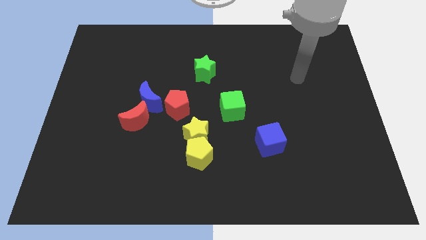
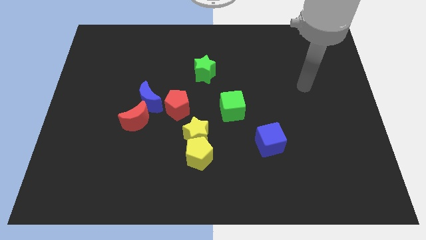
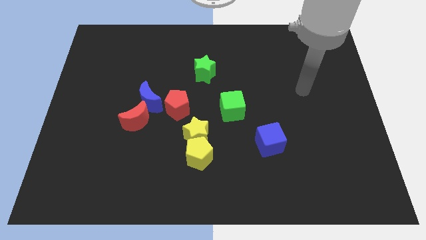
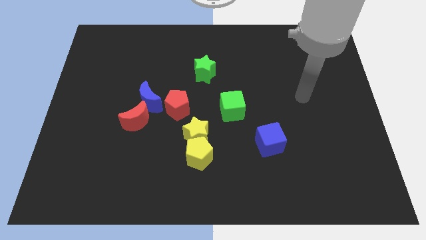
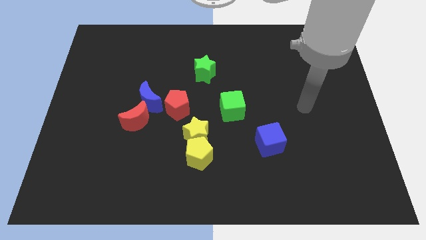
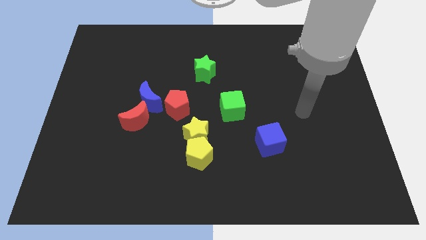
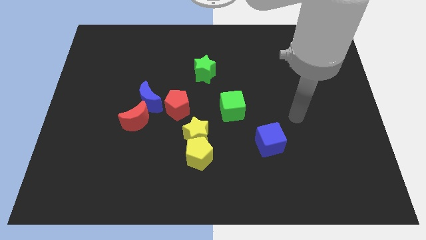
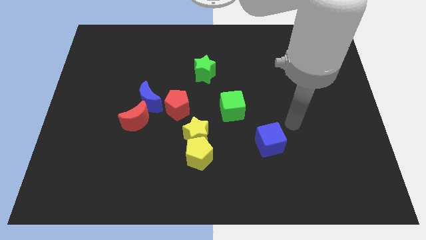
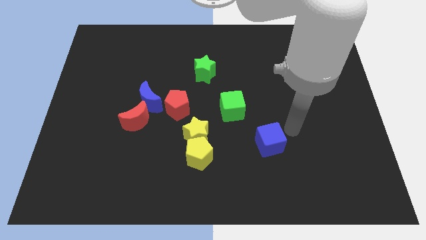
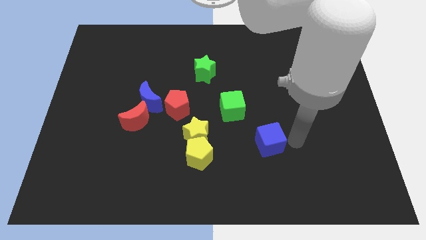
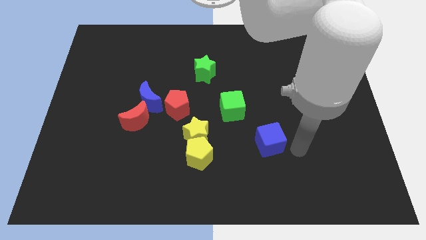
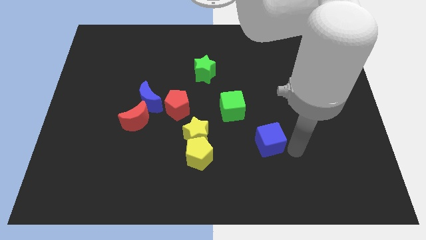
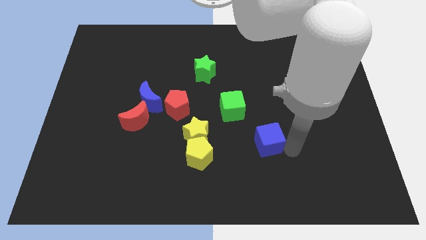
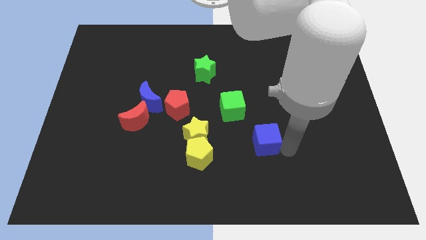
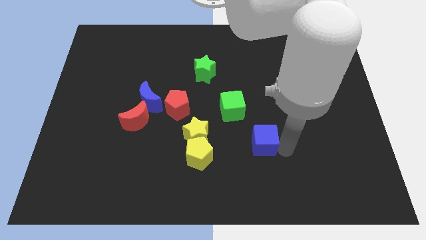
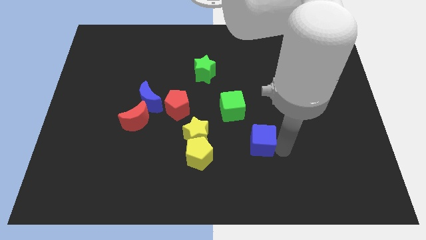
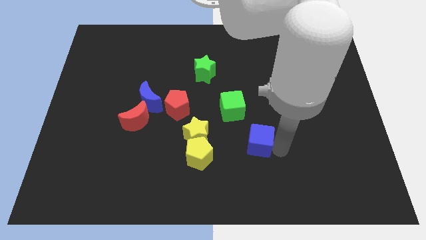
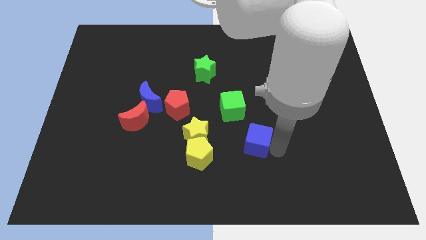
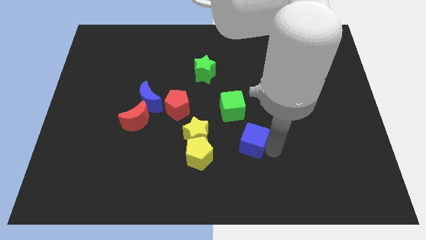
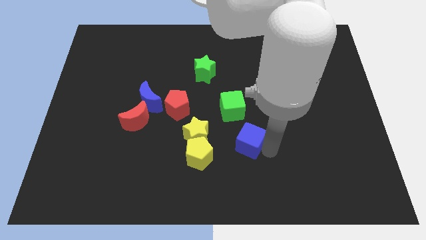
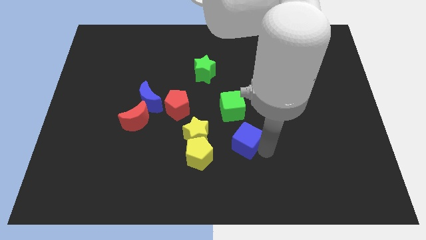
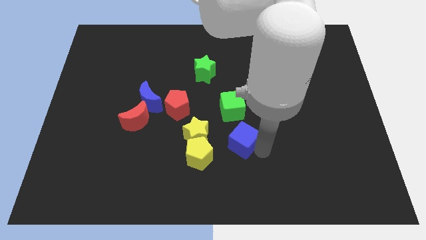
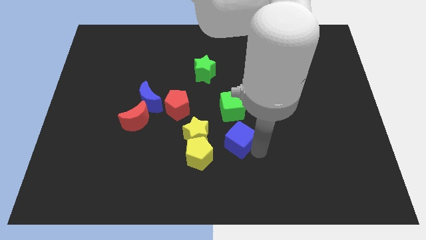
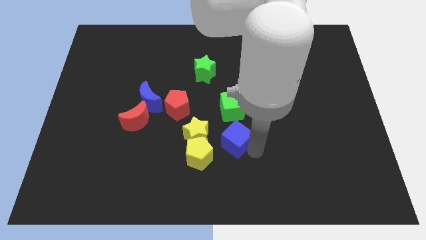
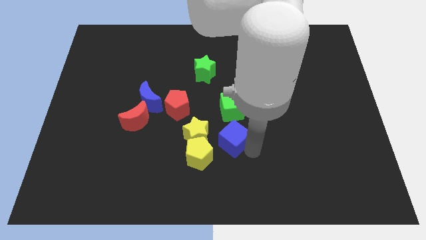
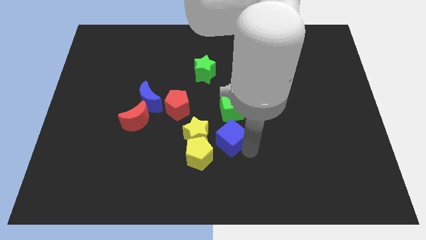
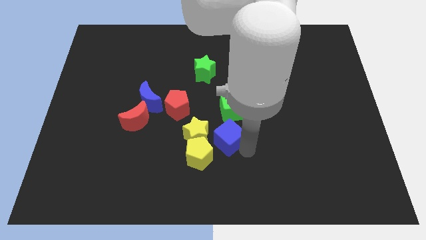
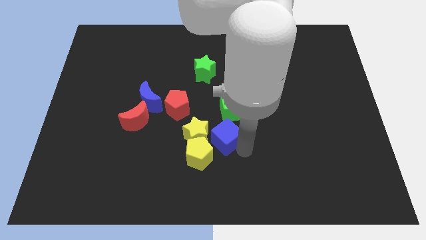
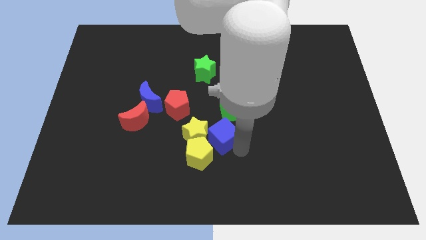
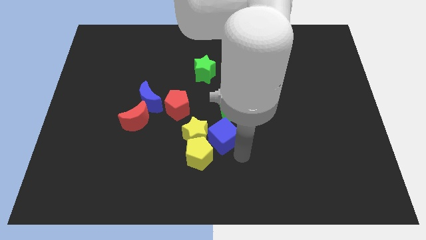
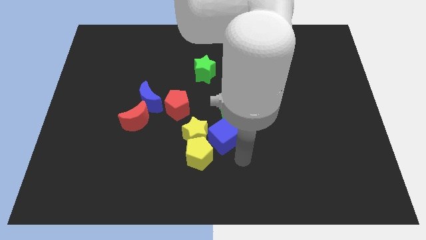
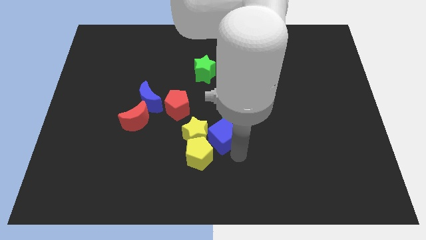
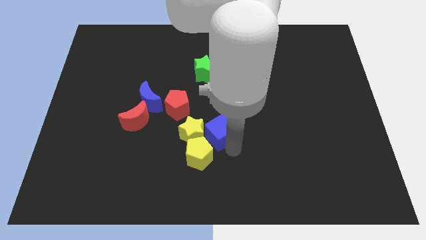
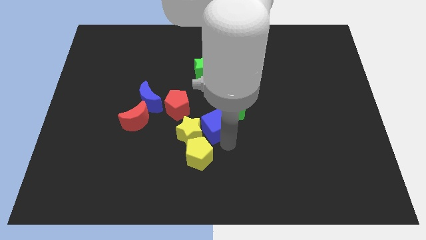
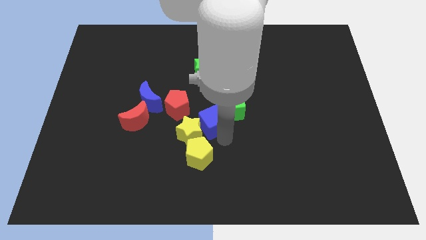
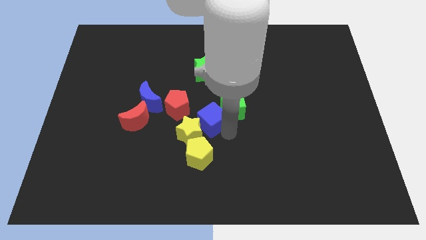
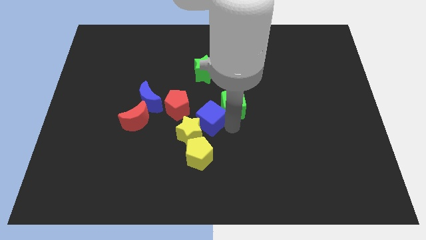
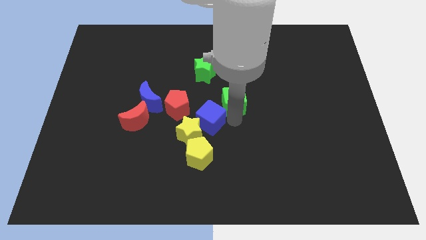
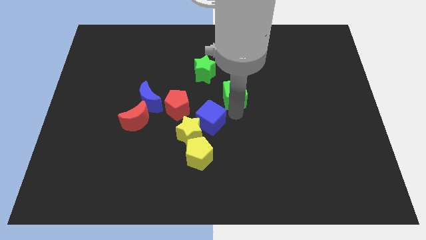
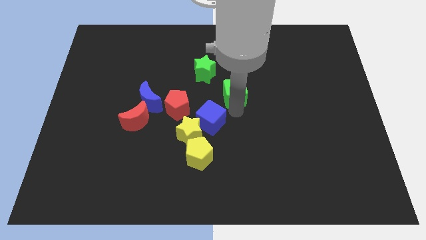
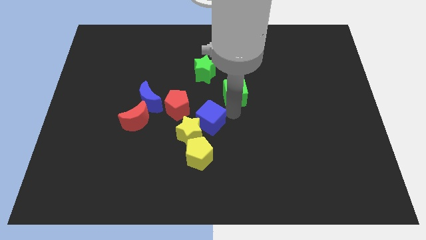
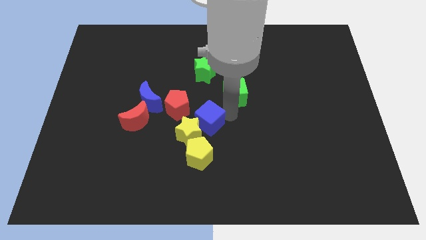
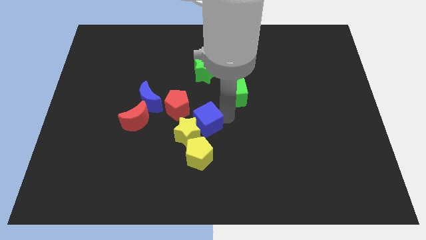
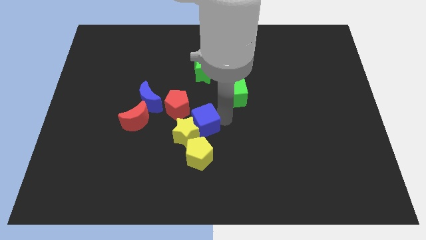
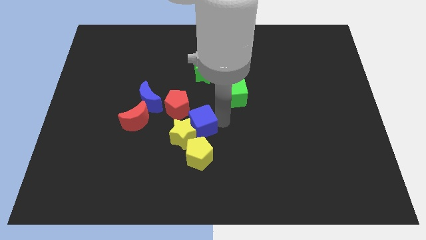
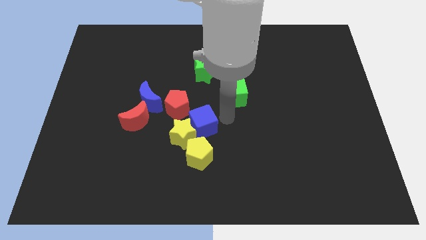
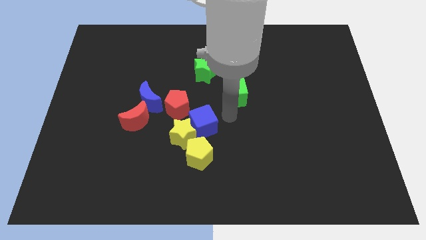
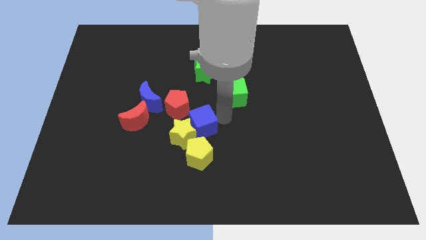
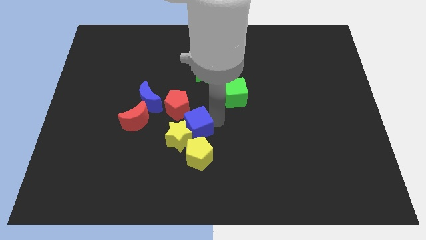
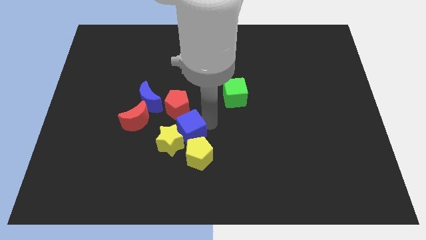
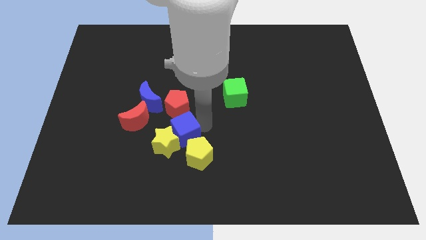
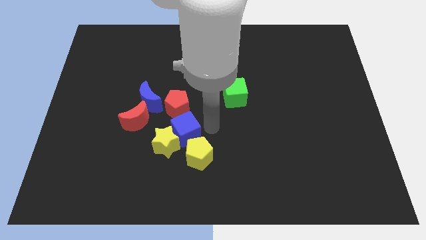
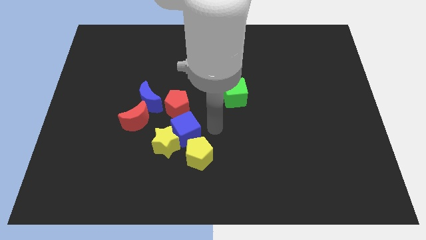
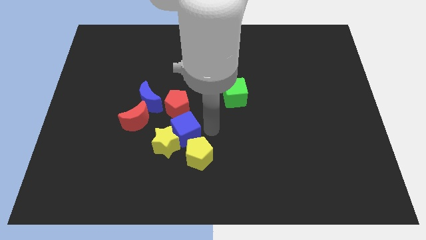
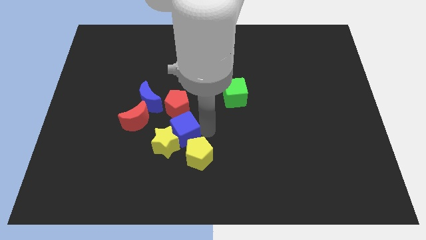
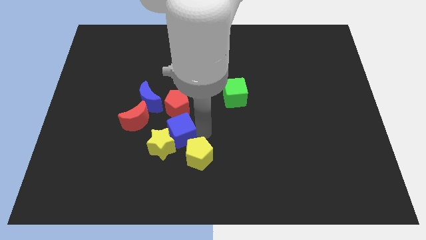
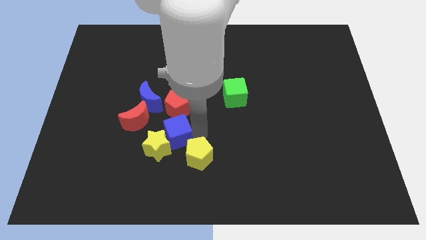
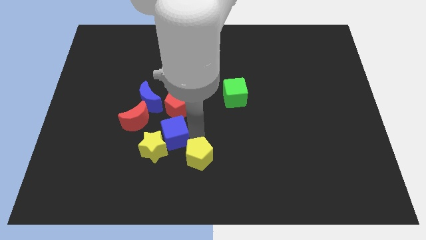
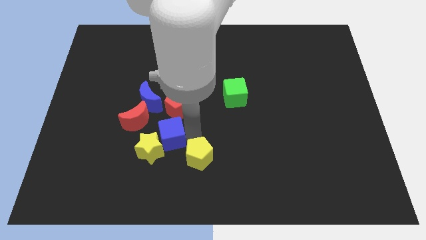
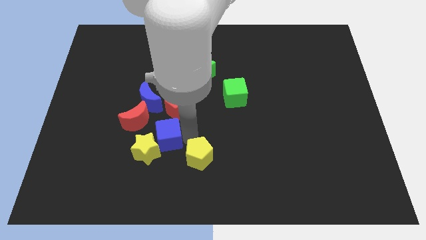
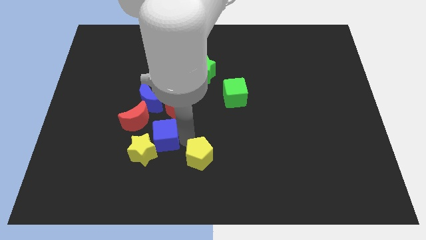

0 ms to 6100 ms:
push the blue cube to the bottom side of the blue moon
